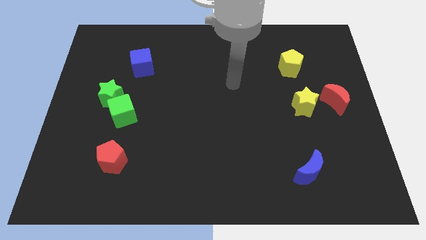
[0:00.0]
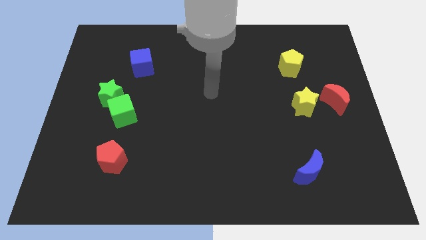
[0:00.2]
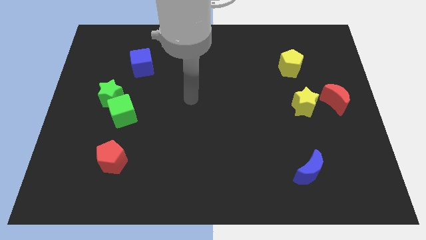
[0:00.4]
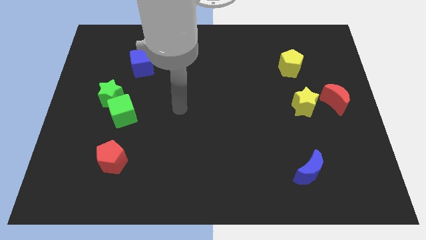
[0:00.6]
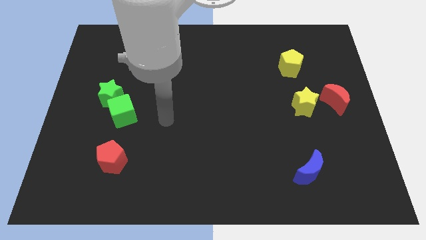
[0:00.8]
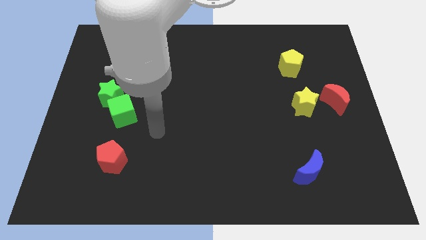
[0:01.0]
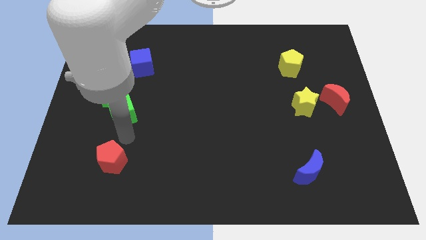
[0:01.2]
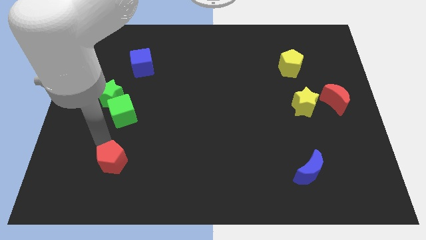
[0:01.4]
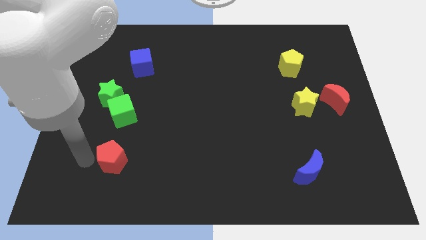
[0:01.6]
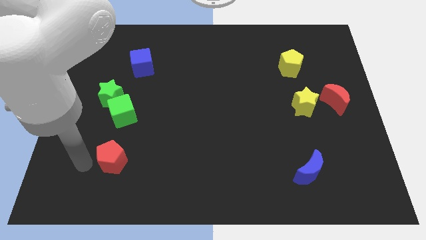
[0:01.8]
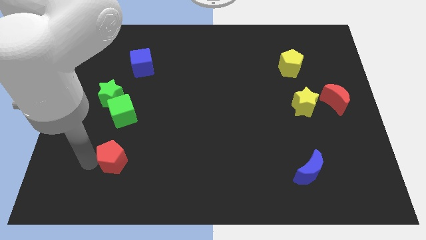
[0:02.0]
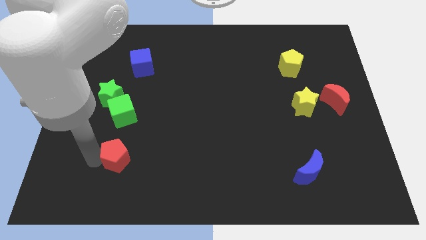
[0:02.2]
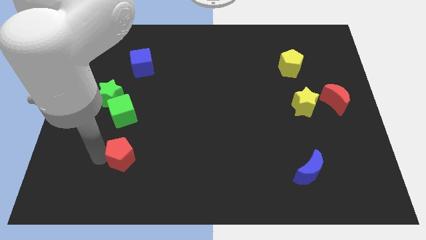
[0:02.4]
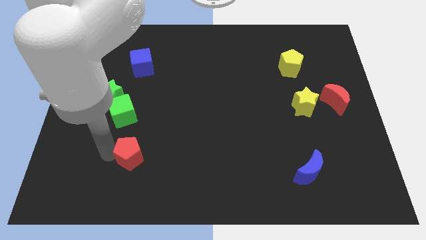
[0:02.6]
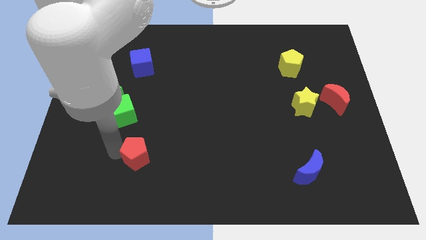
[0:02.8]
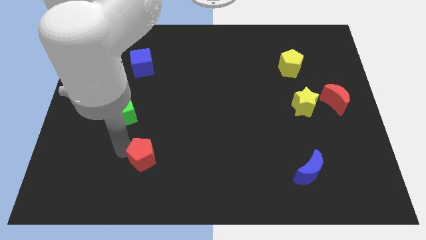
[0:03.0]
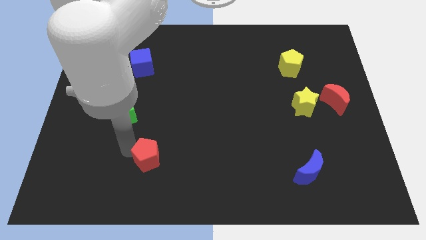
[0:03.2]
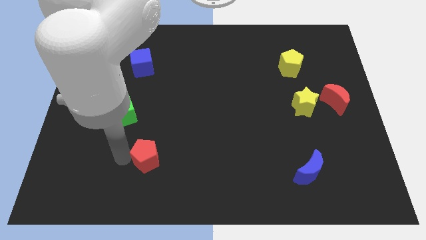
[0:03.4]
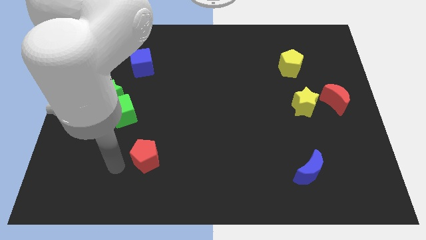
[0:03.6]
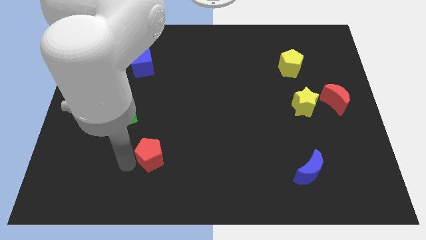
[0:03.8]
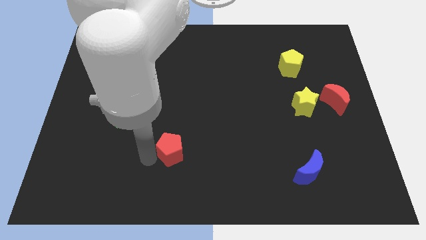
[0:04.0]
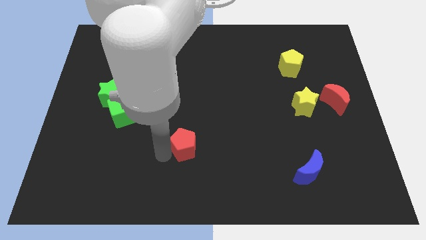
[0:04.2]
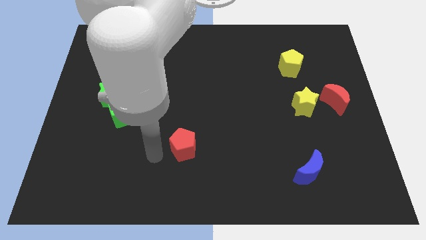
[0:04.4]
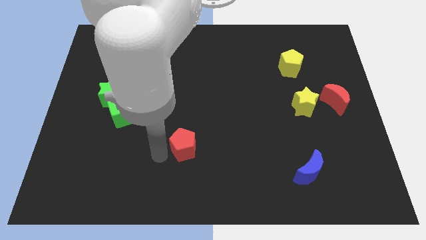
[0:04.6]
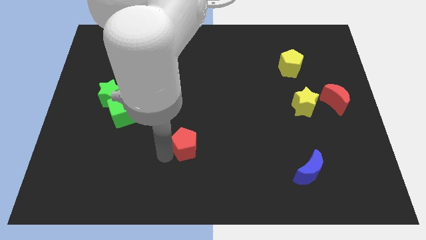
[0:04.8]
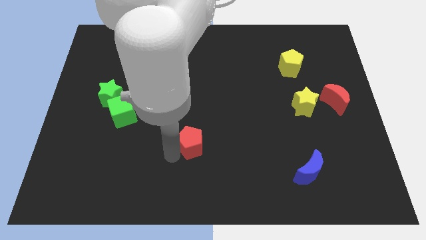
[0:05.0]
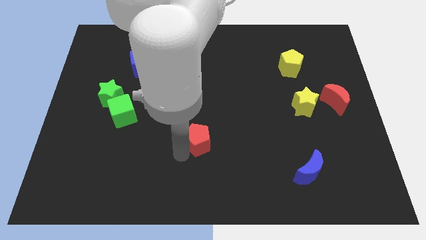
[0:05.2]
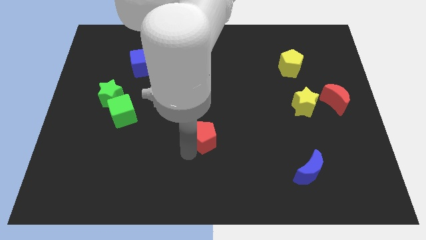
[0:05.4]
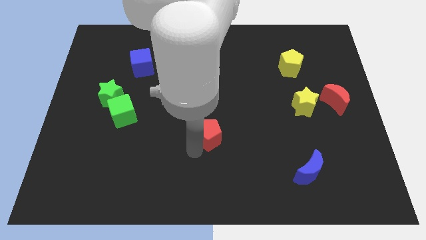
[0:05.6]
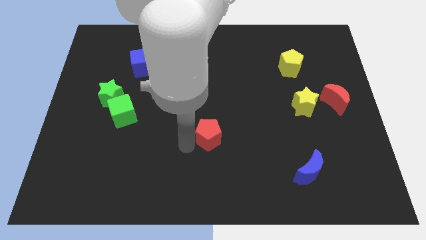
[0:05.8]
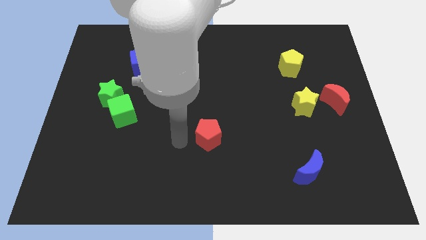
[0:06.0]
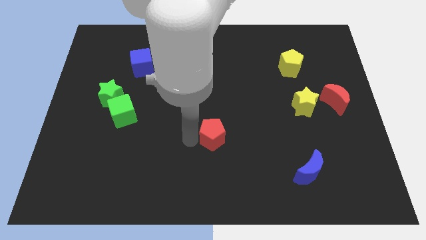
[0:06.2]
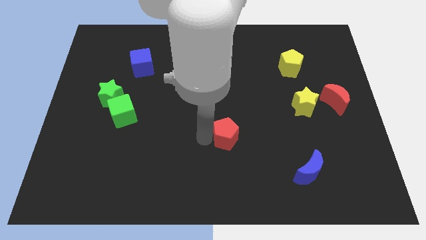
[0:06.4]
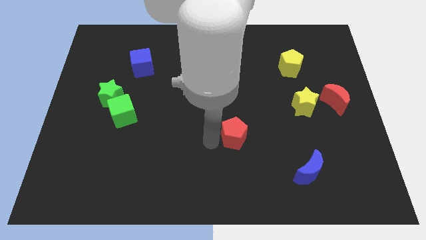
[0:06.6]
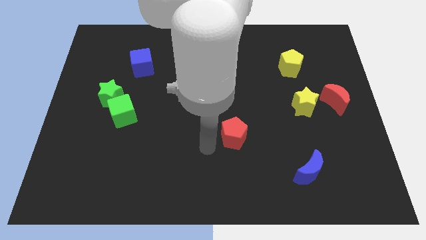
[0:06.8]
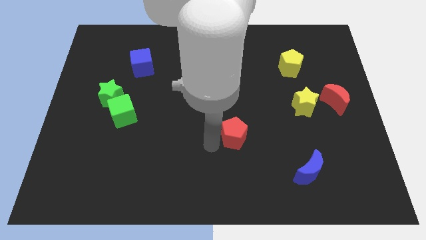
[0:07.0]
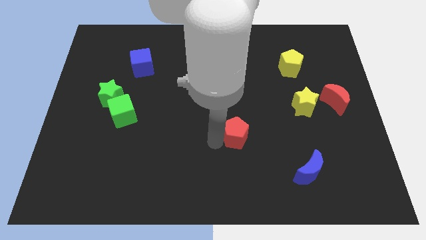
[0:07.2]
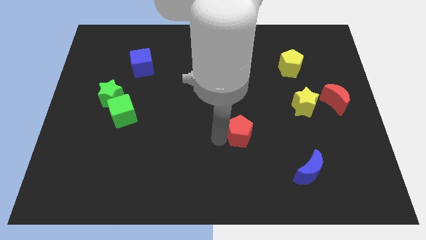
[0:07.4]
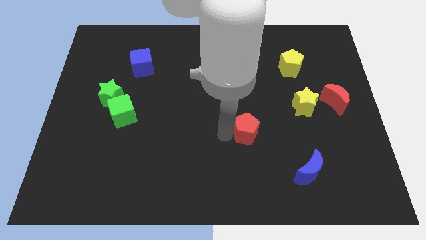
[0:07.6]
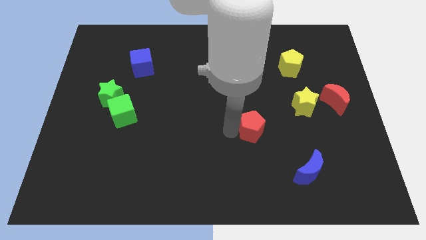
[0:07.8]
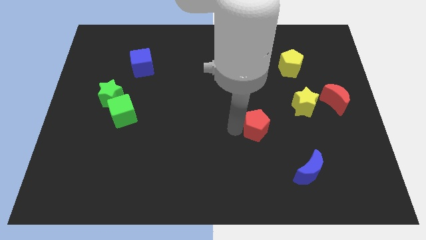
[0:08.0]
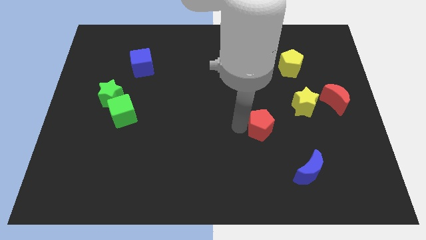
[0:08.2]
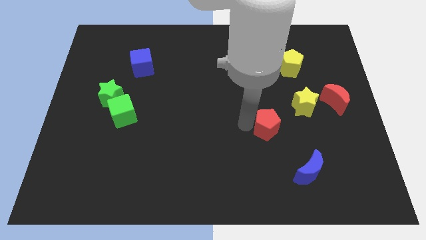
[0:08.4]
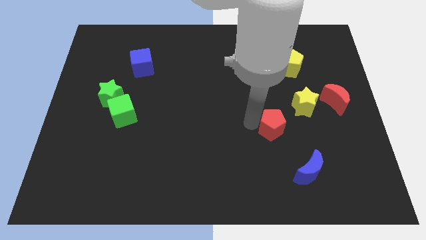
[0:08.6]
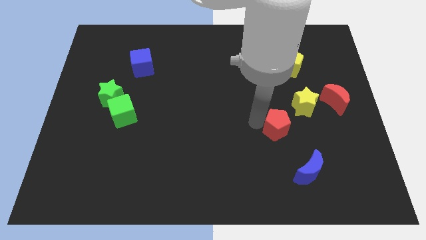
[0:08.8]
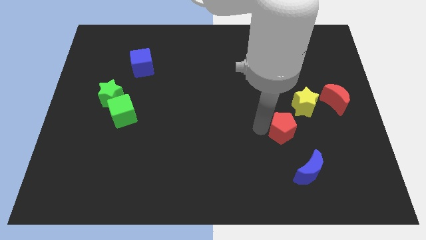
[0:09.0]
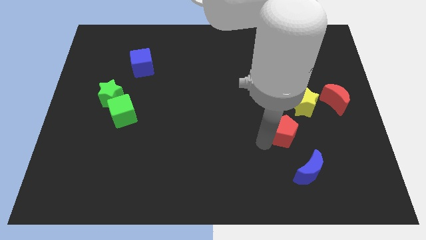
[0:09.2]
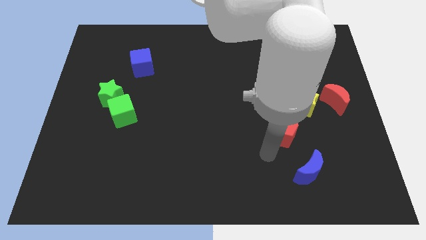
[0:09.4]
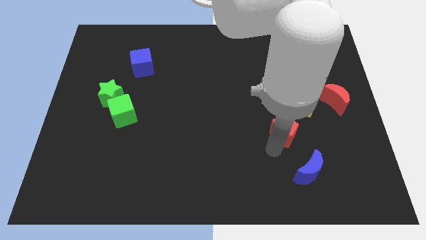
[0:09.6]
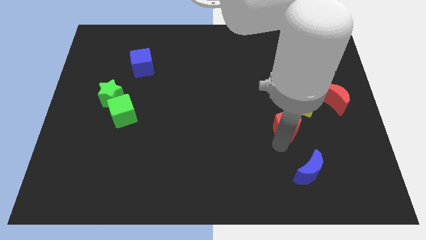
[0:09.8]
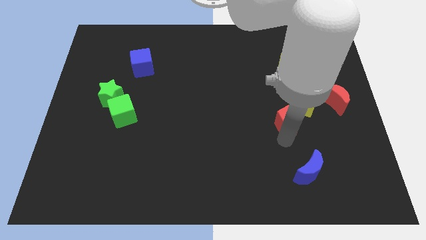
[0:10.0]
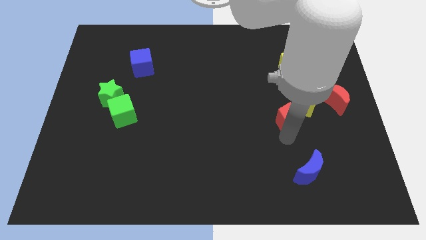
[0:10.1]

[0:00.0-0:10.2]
slide the red pentagon to the yellow star

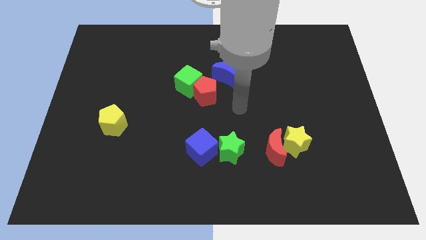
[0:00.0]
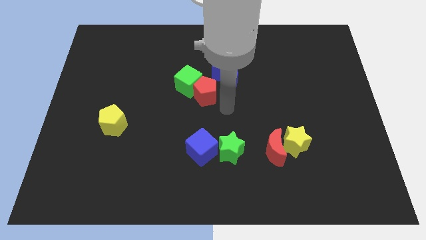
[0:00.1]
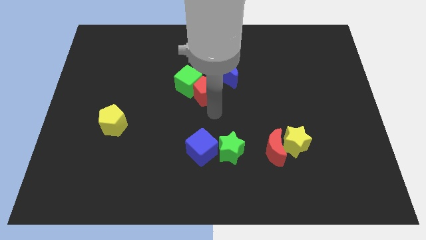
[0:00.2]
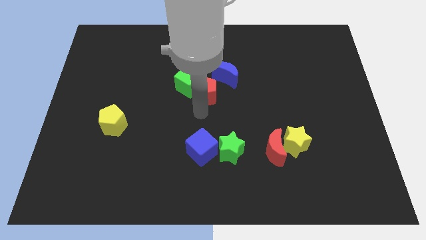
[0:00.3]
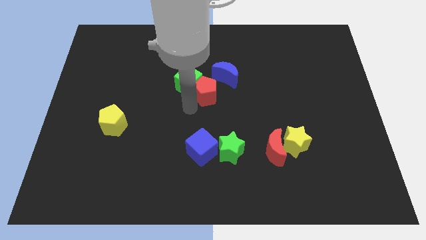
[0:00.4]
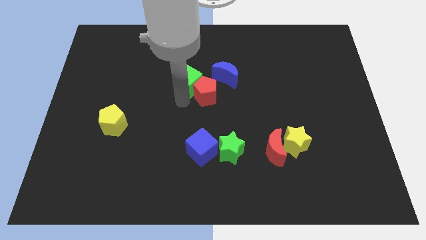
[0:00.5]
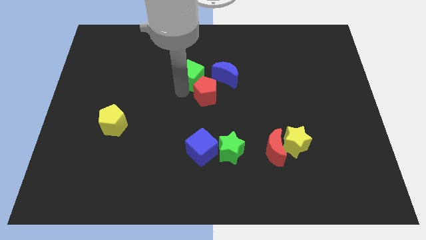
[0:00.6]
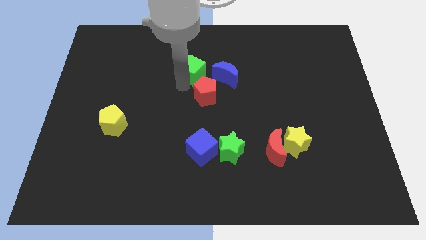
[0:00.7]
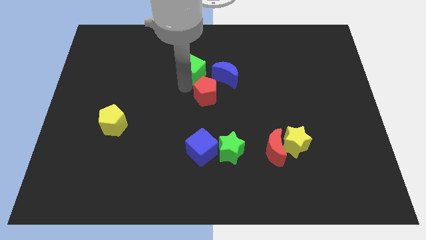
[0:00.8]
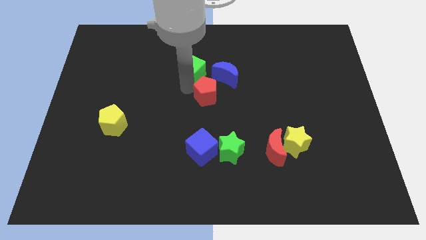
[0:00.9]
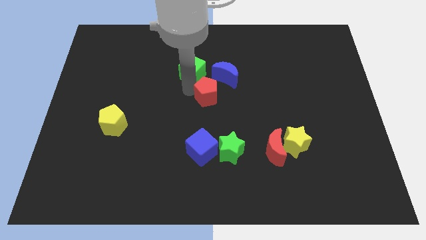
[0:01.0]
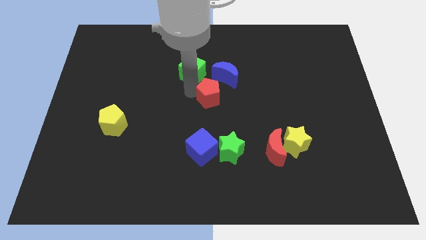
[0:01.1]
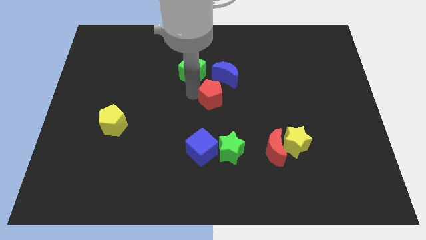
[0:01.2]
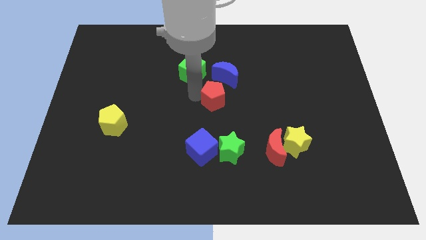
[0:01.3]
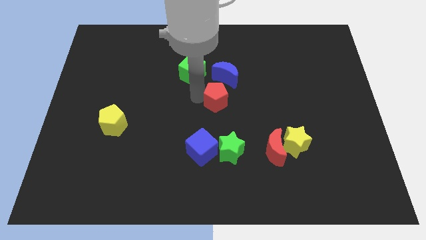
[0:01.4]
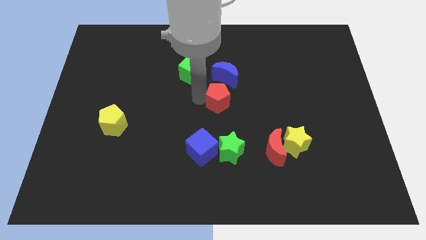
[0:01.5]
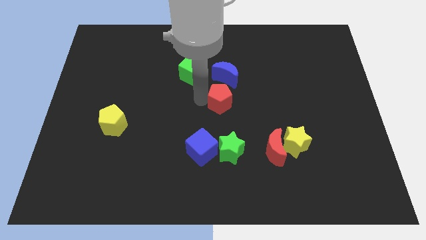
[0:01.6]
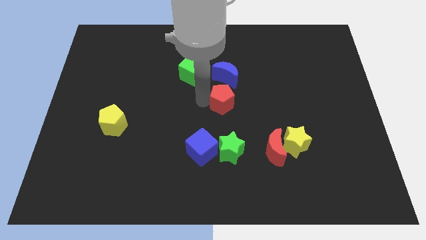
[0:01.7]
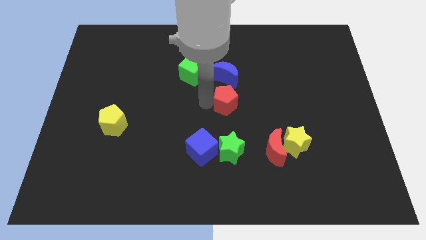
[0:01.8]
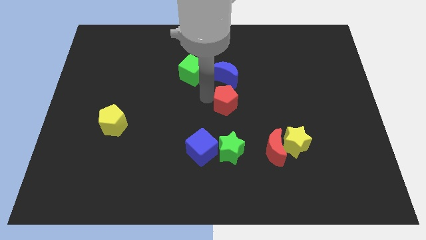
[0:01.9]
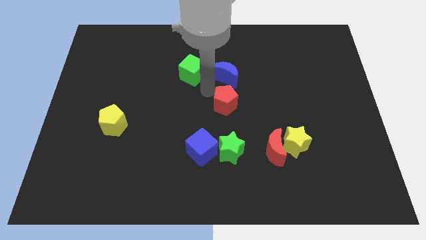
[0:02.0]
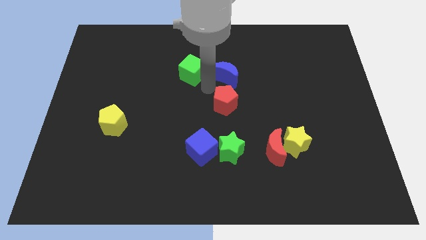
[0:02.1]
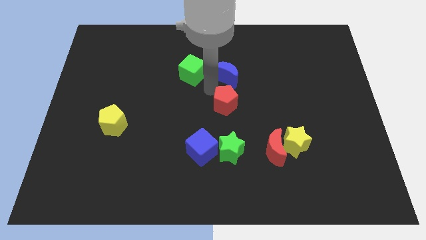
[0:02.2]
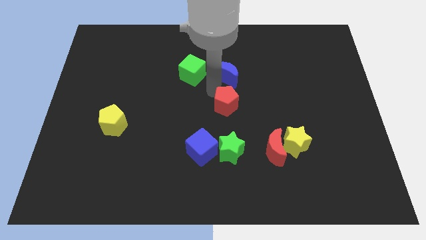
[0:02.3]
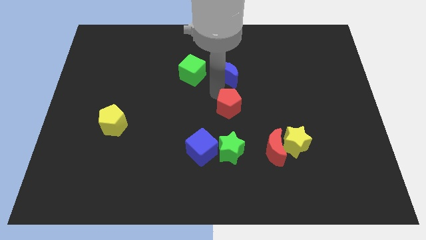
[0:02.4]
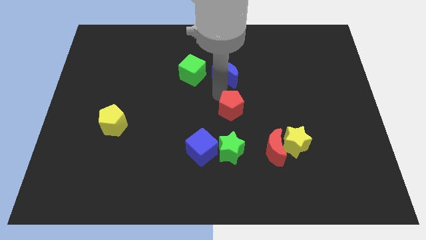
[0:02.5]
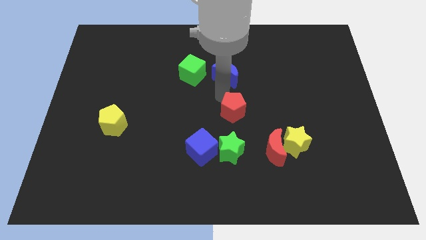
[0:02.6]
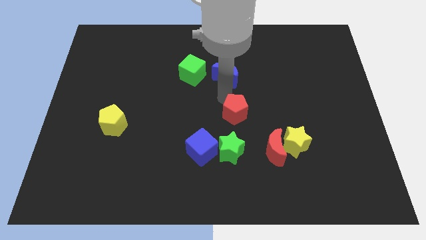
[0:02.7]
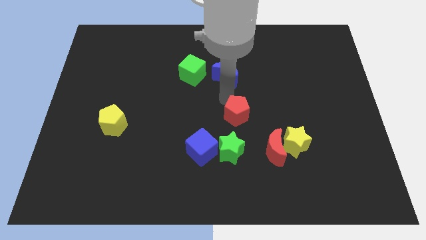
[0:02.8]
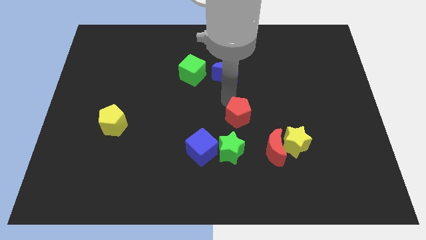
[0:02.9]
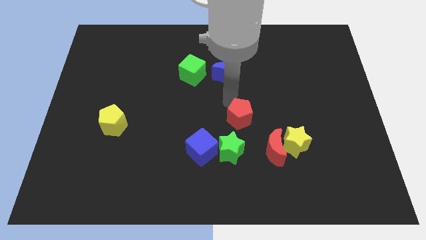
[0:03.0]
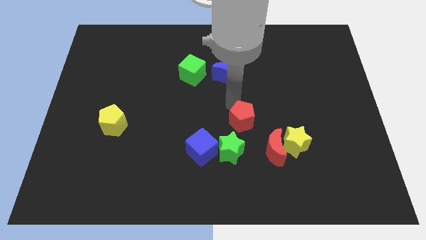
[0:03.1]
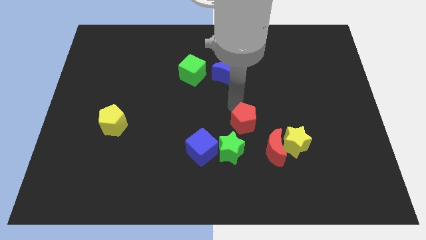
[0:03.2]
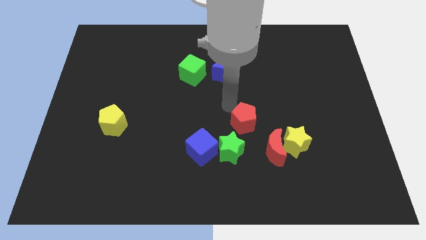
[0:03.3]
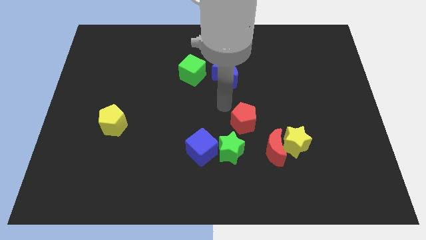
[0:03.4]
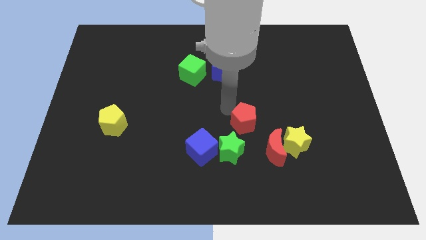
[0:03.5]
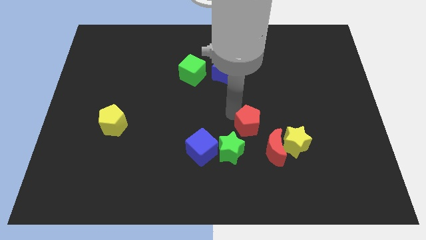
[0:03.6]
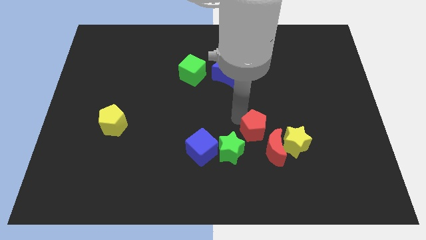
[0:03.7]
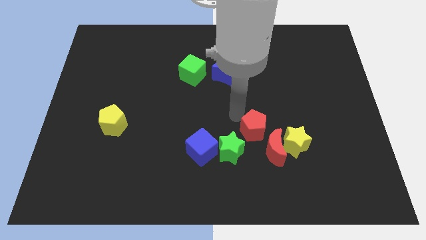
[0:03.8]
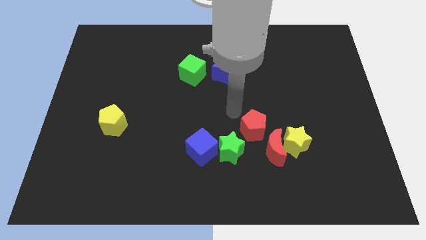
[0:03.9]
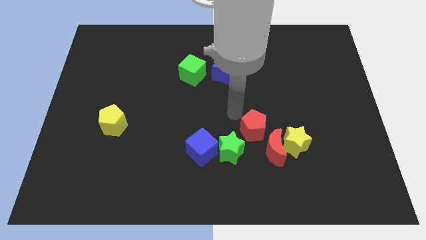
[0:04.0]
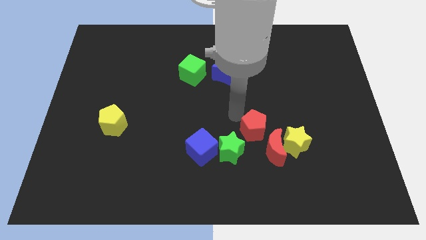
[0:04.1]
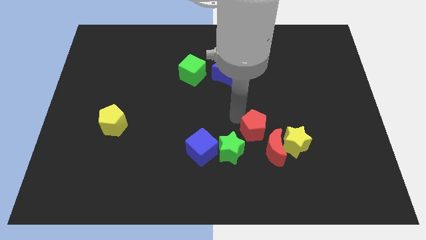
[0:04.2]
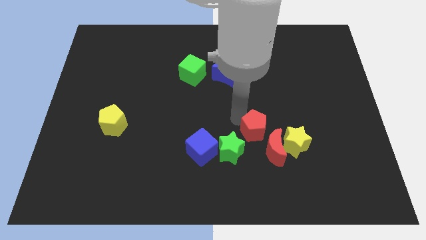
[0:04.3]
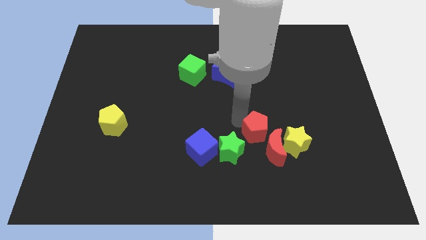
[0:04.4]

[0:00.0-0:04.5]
move the red pentagon to the red moon
